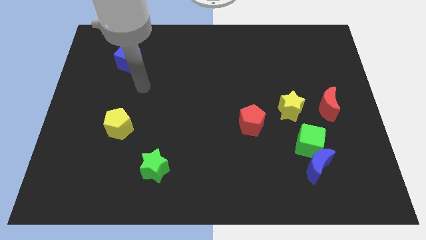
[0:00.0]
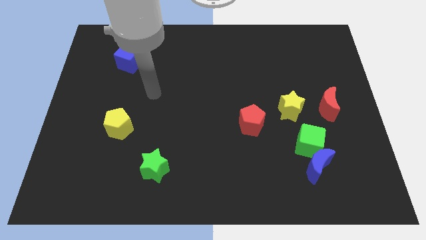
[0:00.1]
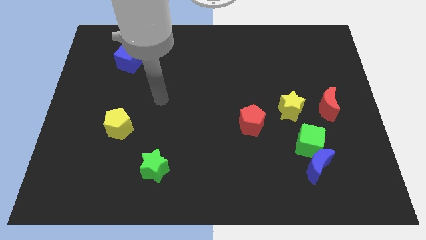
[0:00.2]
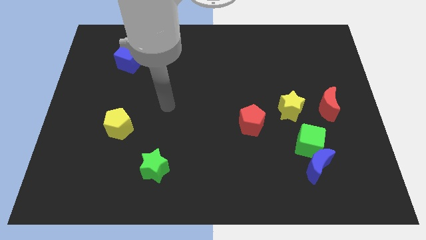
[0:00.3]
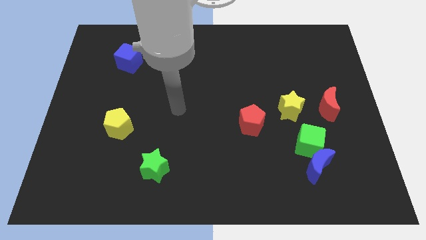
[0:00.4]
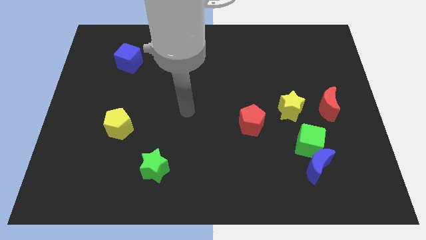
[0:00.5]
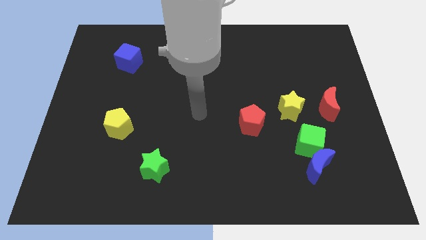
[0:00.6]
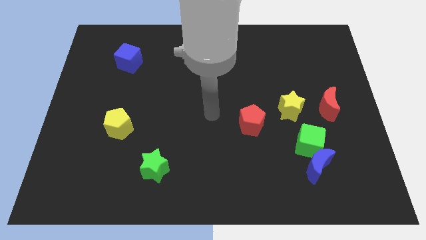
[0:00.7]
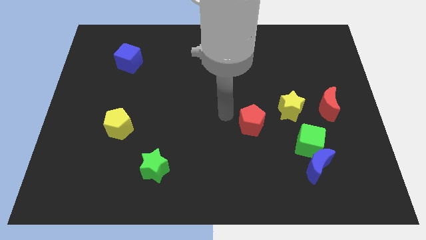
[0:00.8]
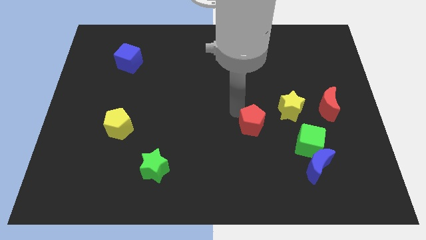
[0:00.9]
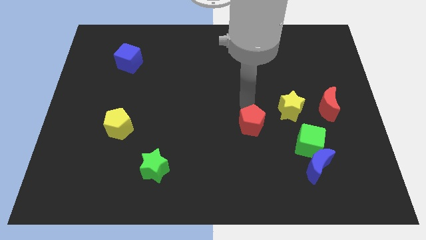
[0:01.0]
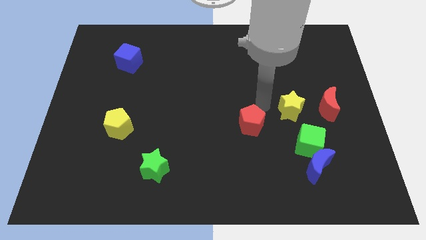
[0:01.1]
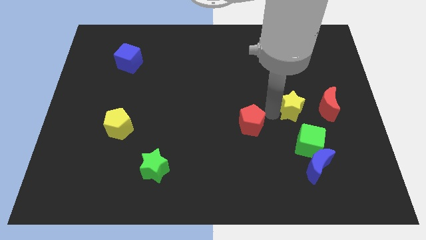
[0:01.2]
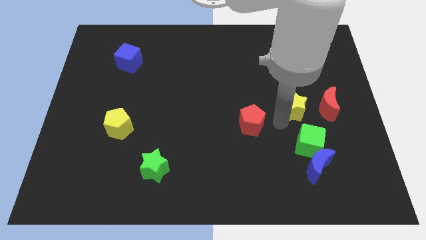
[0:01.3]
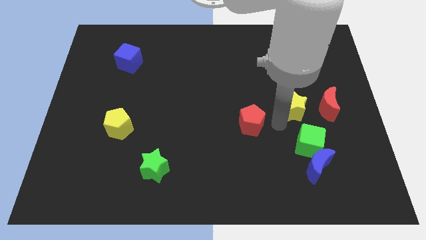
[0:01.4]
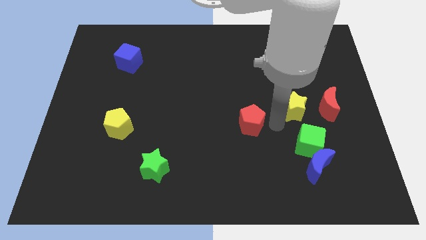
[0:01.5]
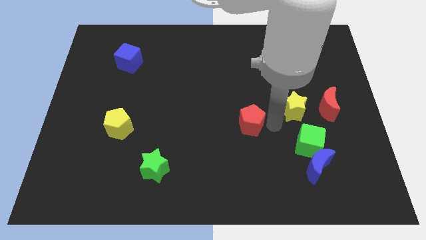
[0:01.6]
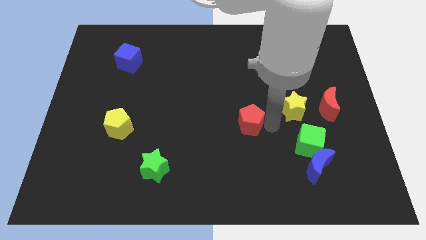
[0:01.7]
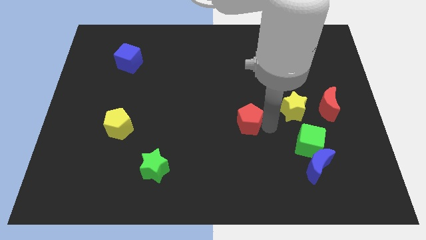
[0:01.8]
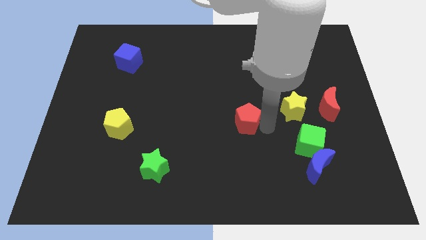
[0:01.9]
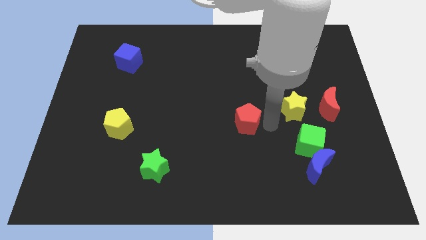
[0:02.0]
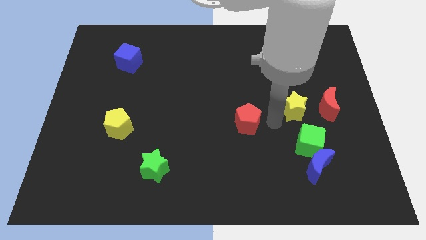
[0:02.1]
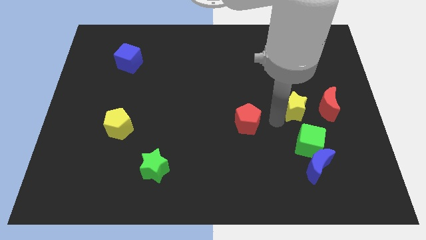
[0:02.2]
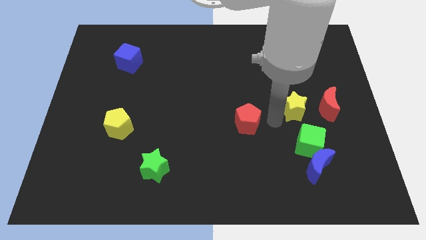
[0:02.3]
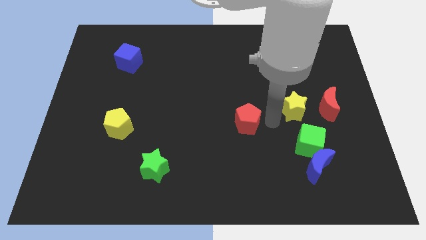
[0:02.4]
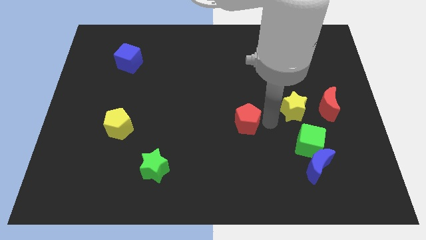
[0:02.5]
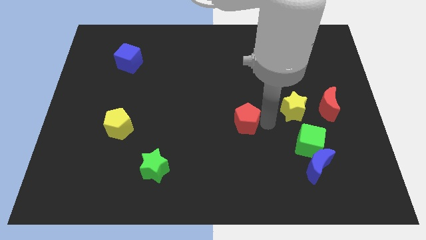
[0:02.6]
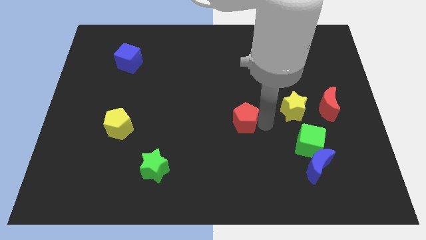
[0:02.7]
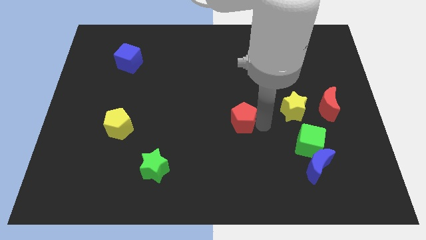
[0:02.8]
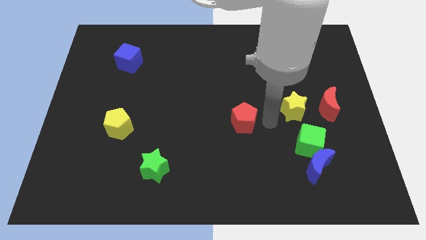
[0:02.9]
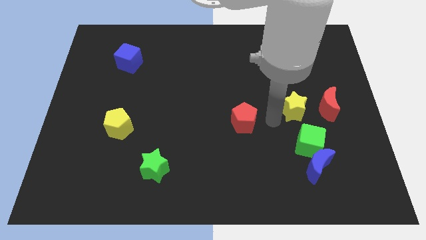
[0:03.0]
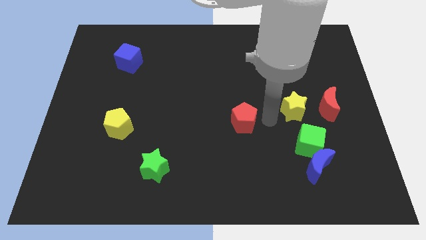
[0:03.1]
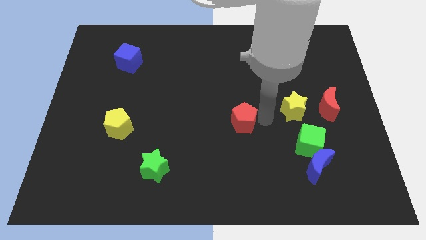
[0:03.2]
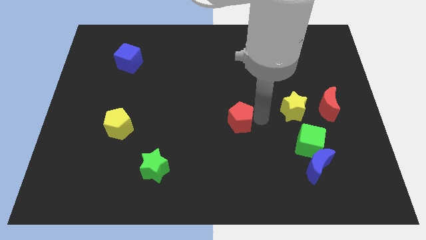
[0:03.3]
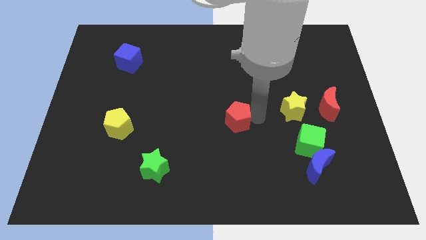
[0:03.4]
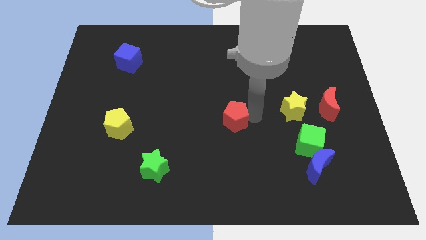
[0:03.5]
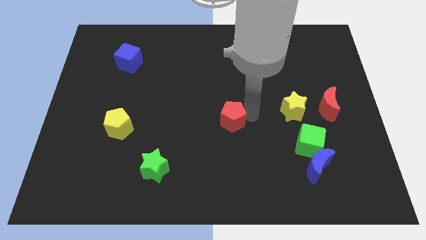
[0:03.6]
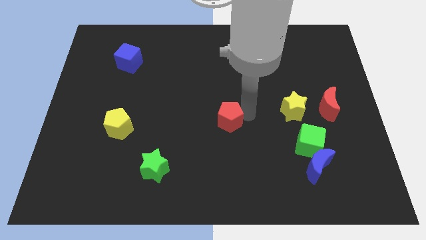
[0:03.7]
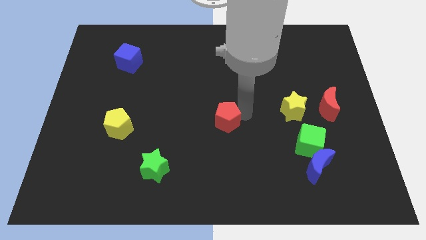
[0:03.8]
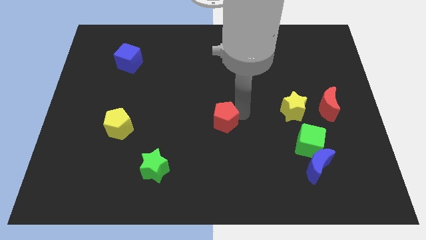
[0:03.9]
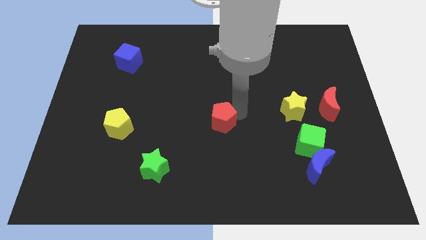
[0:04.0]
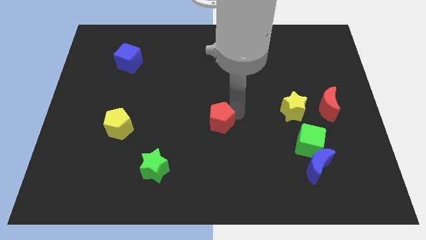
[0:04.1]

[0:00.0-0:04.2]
slightly slide the red pentagon to the left

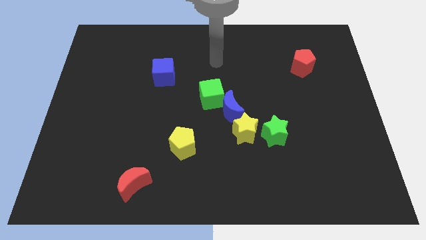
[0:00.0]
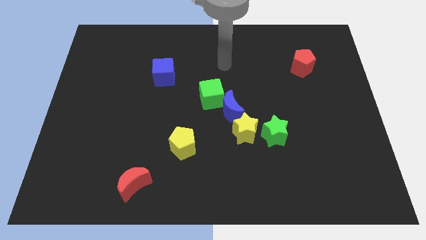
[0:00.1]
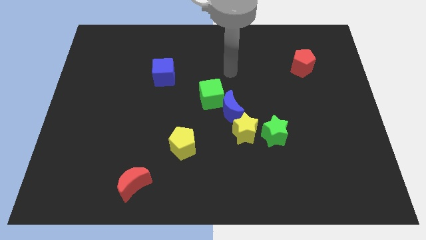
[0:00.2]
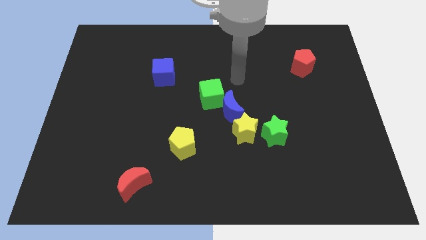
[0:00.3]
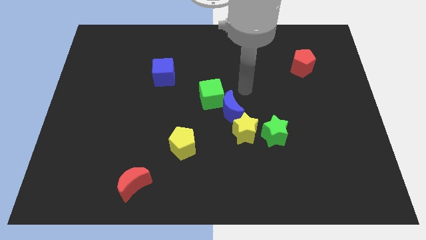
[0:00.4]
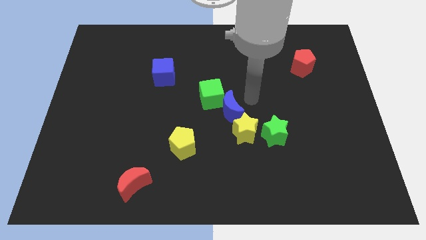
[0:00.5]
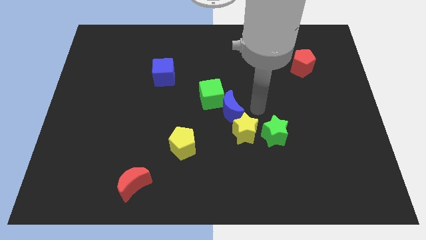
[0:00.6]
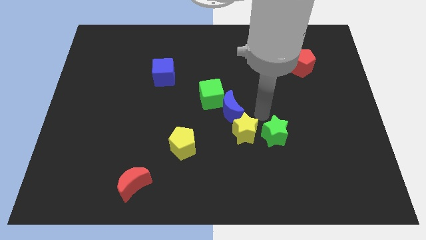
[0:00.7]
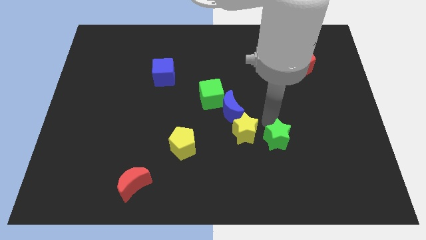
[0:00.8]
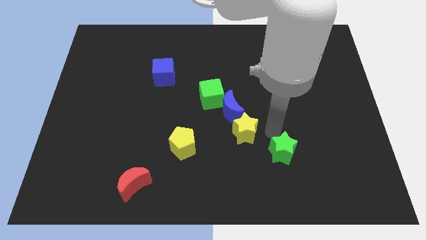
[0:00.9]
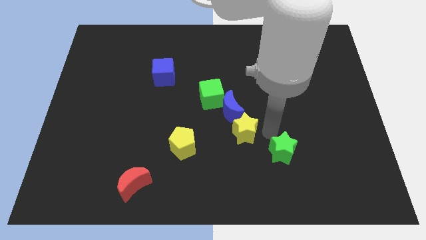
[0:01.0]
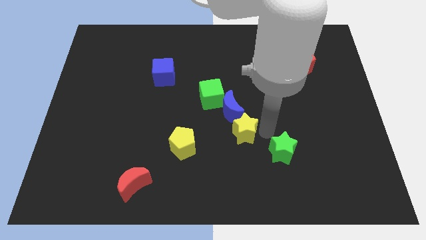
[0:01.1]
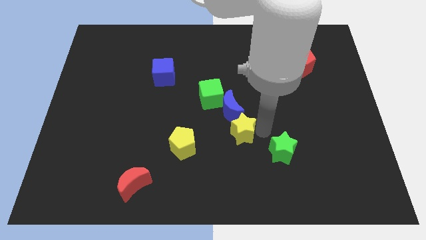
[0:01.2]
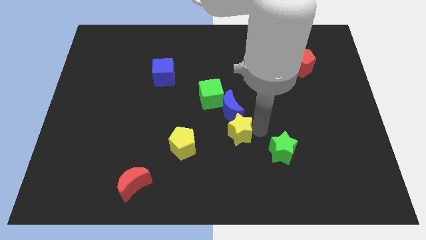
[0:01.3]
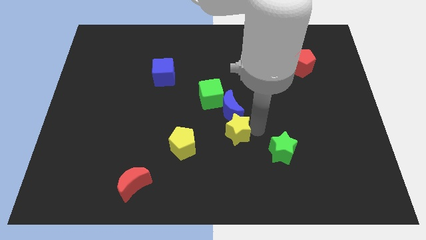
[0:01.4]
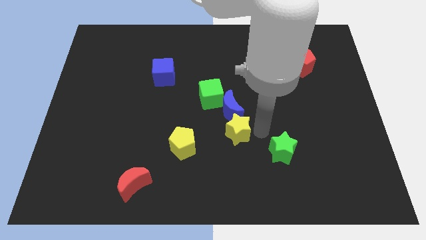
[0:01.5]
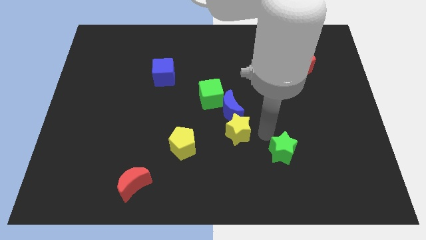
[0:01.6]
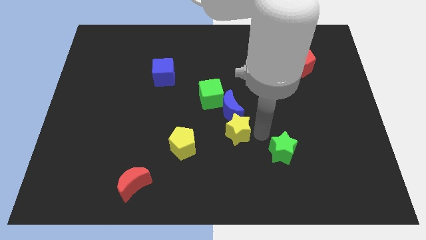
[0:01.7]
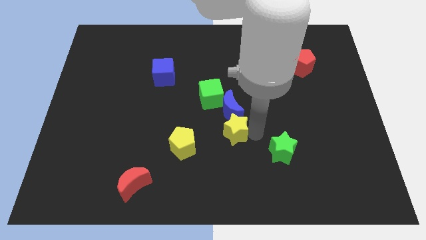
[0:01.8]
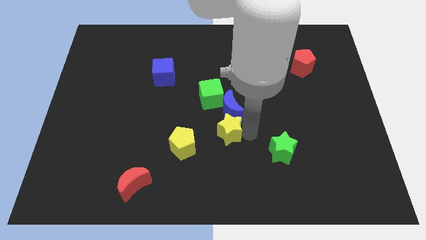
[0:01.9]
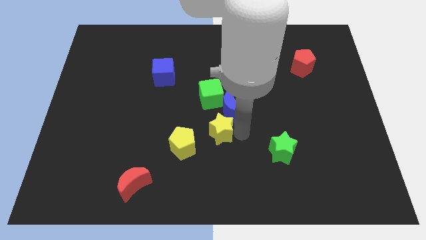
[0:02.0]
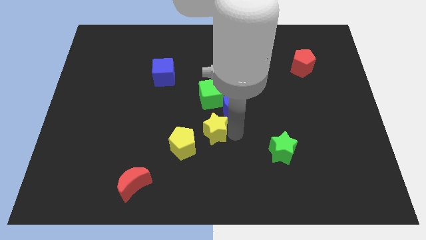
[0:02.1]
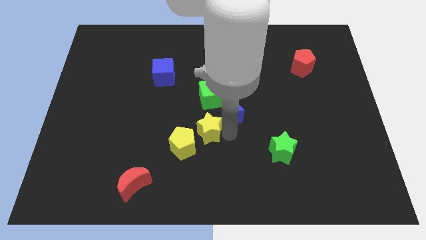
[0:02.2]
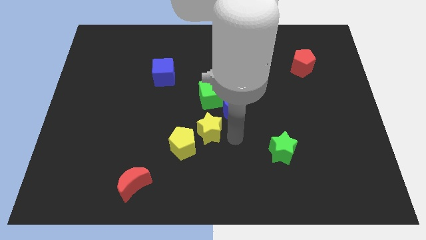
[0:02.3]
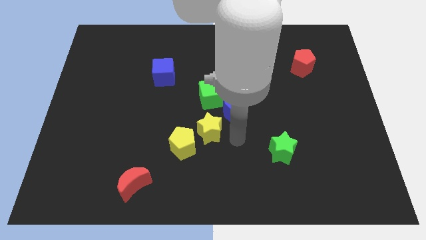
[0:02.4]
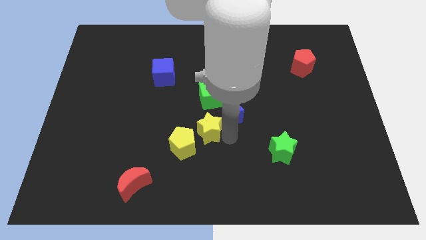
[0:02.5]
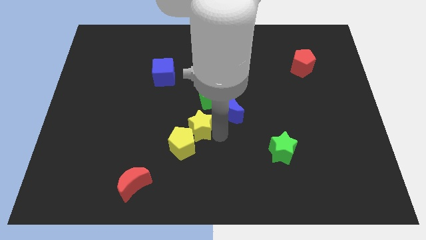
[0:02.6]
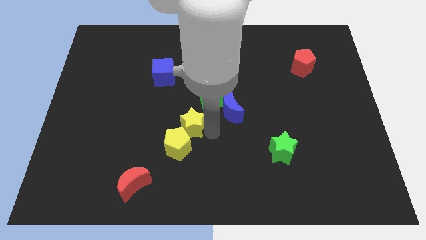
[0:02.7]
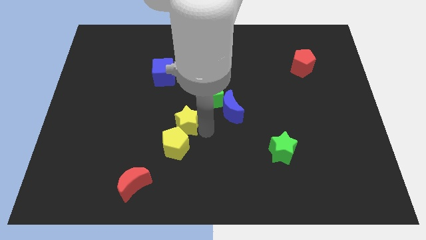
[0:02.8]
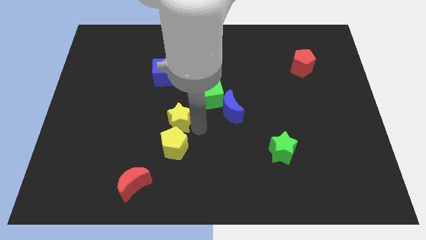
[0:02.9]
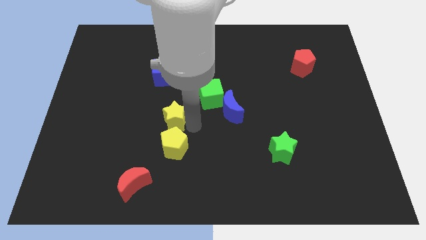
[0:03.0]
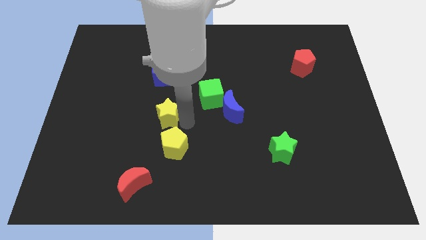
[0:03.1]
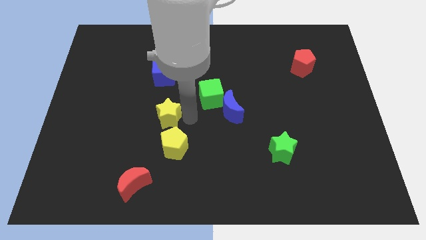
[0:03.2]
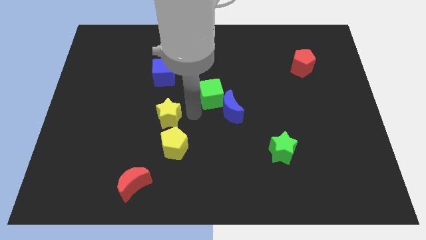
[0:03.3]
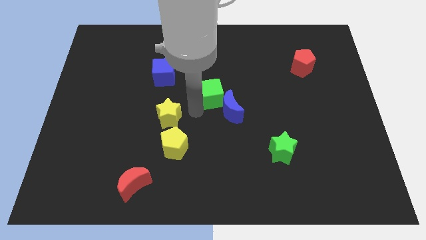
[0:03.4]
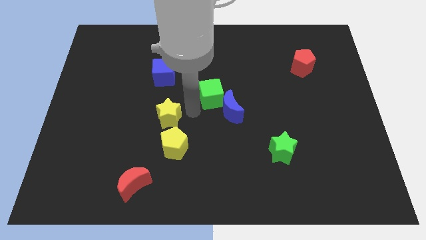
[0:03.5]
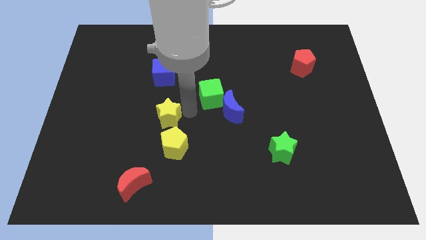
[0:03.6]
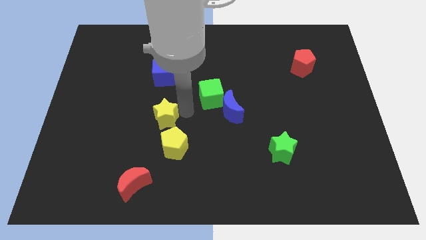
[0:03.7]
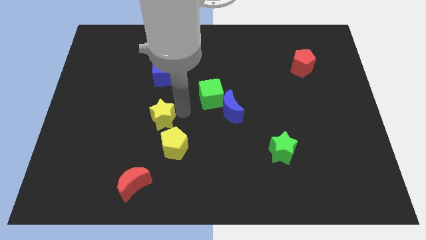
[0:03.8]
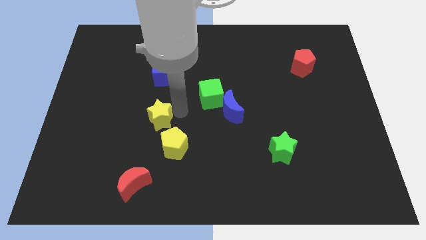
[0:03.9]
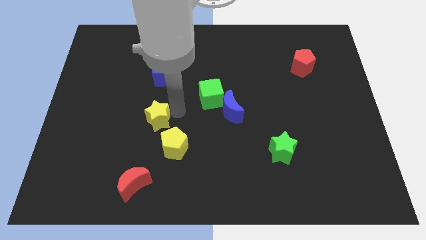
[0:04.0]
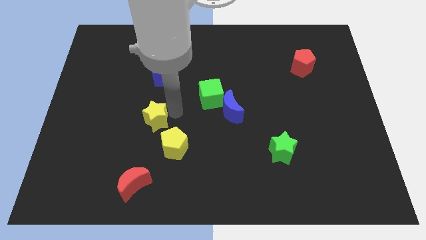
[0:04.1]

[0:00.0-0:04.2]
slide the yellow star left
